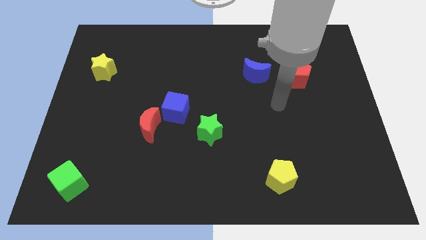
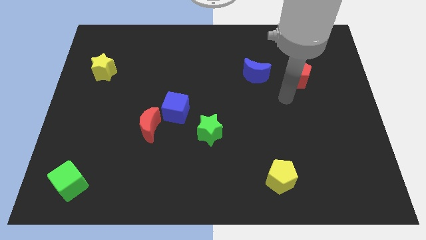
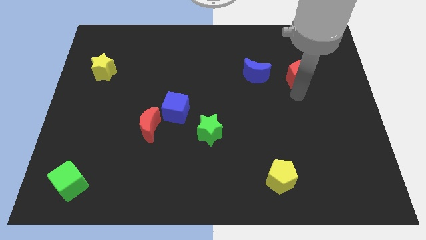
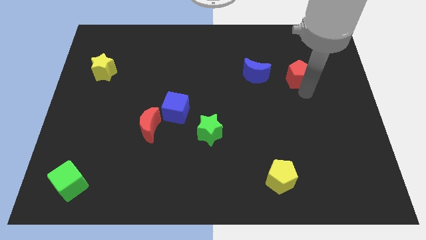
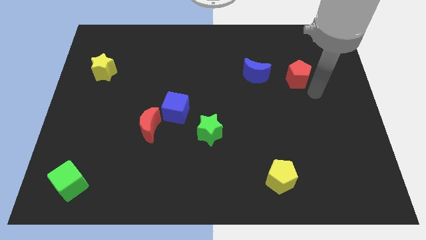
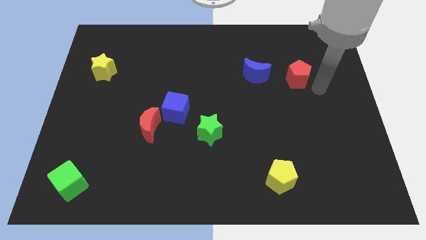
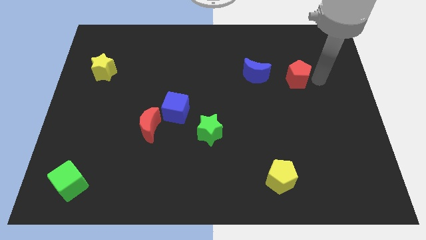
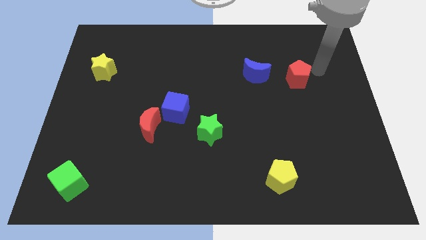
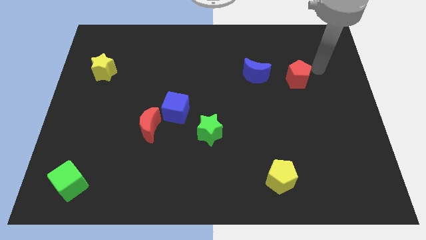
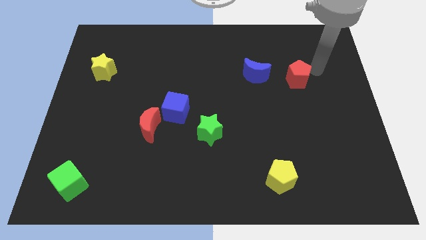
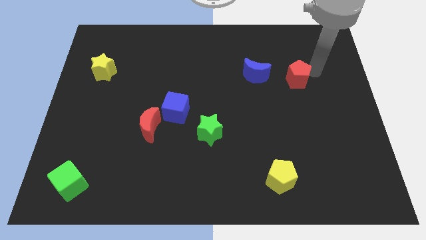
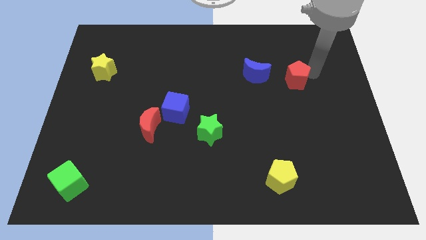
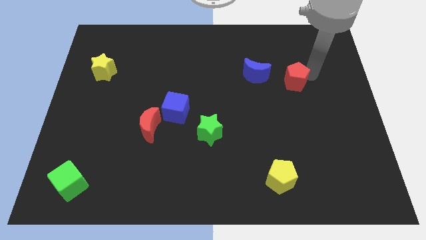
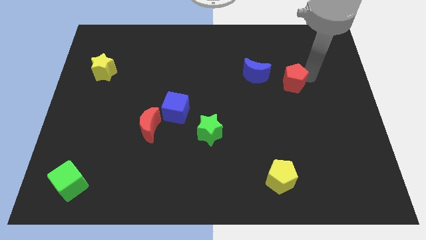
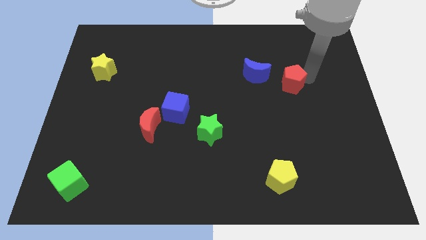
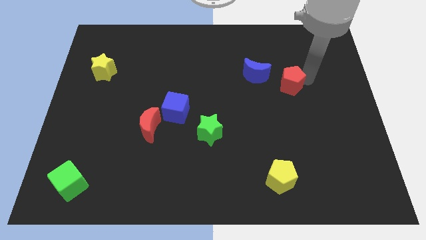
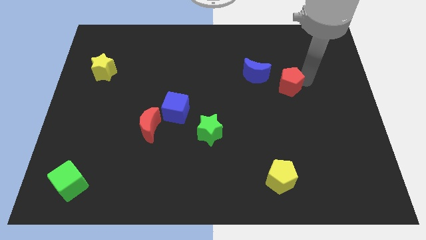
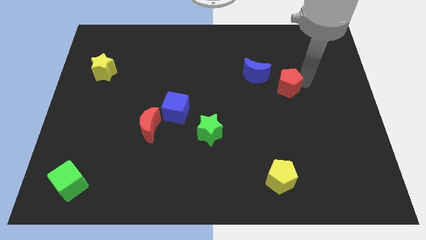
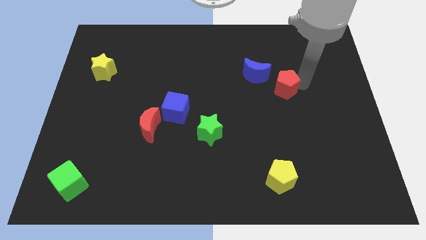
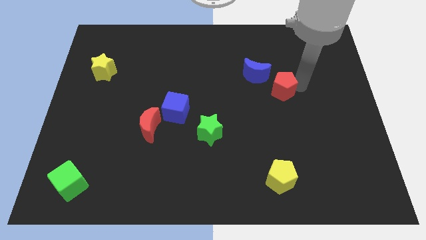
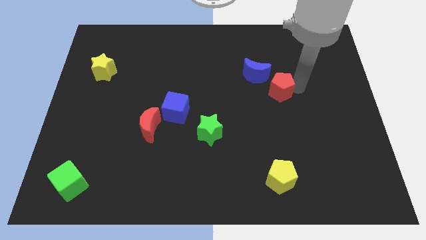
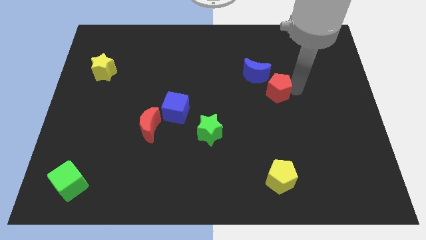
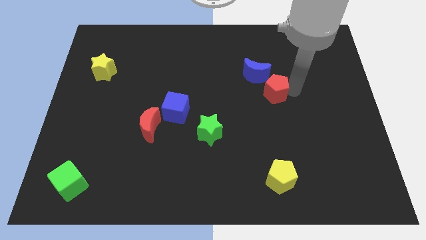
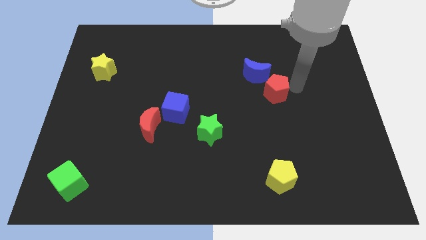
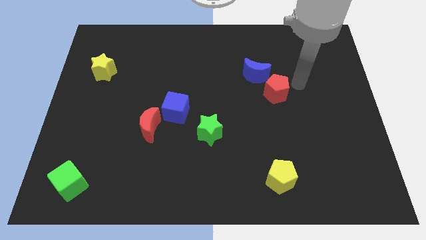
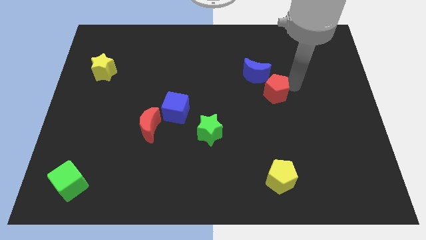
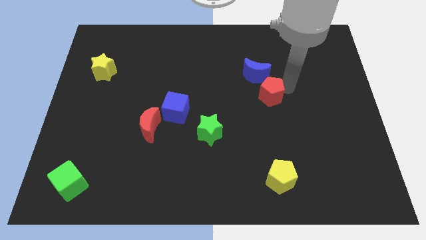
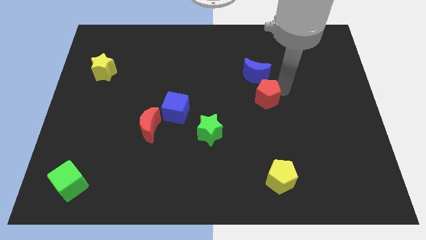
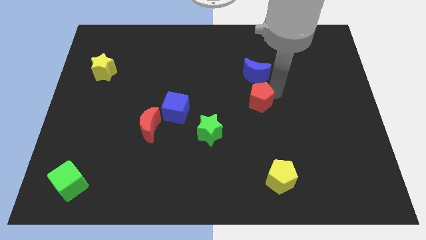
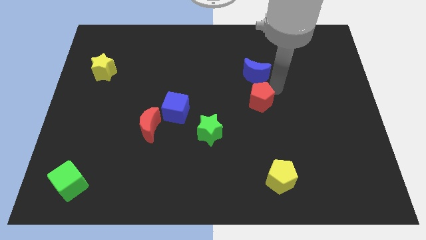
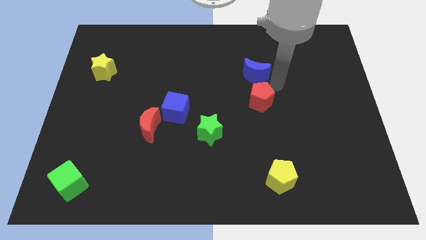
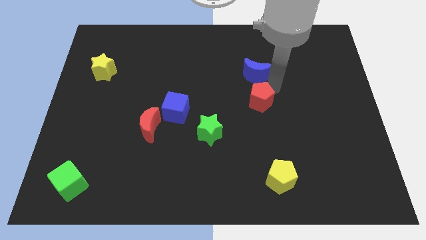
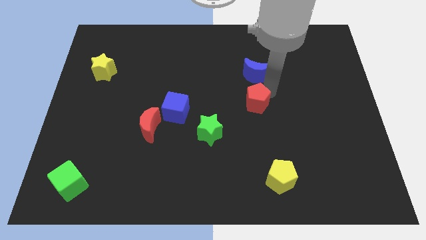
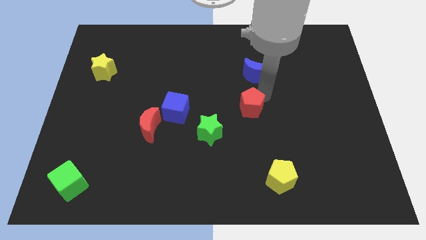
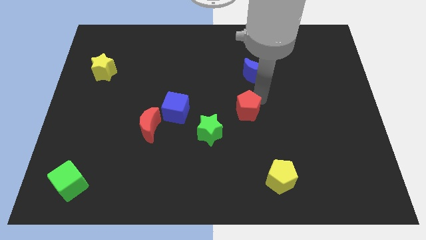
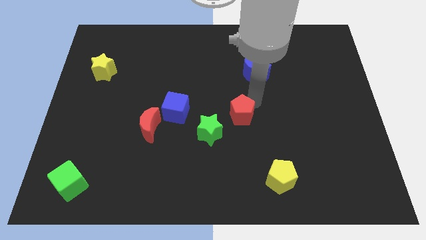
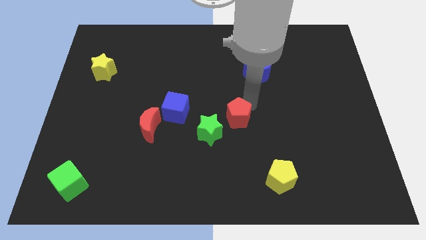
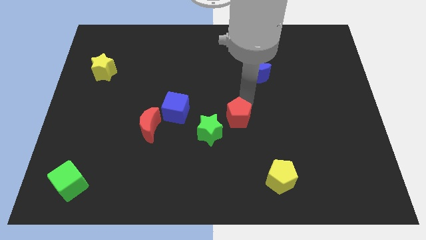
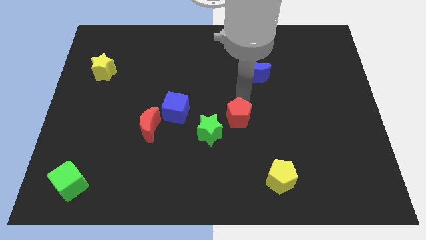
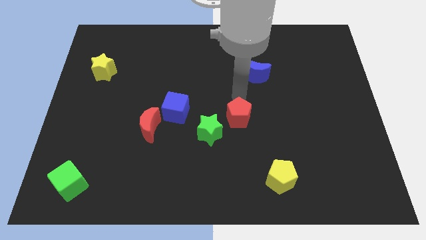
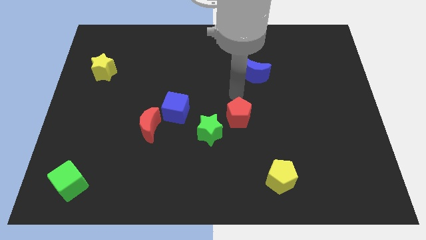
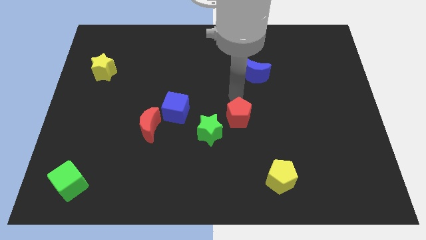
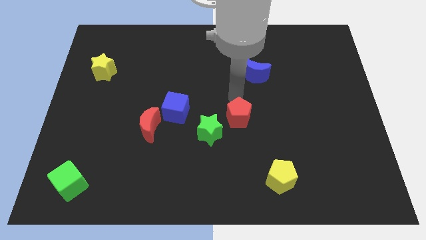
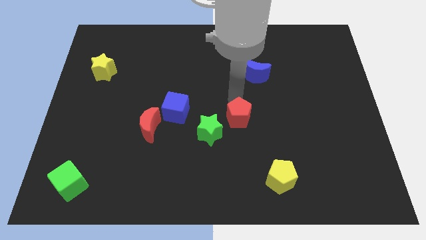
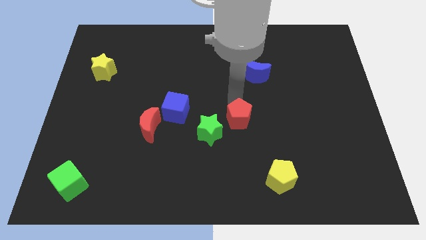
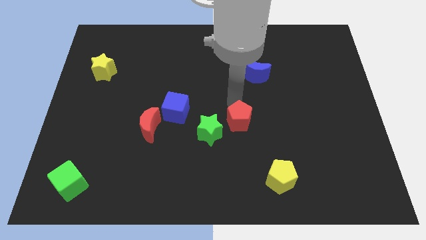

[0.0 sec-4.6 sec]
move the red pentagon downwards and left diagonally

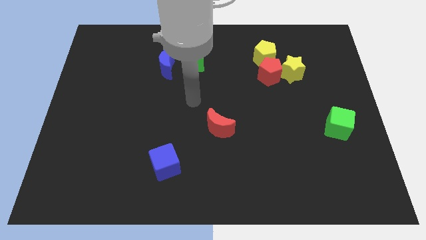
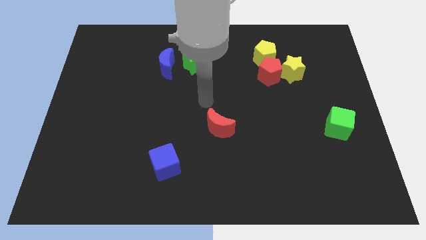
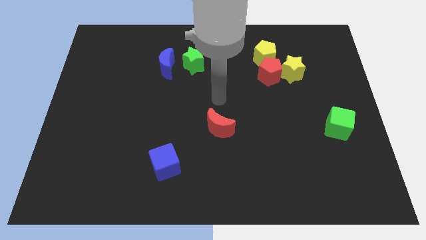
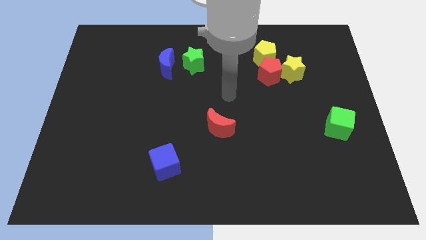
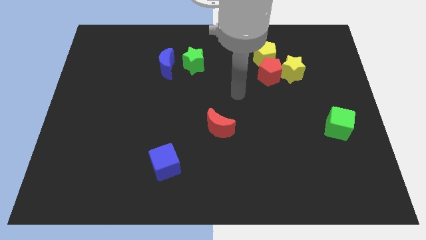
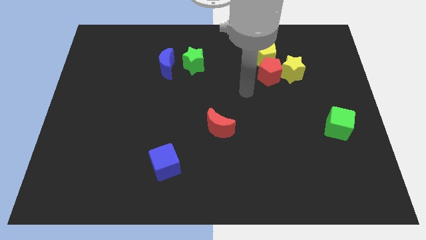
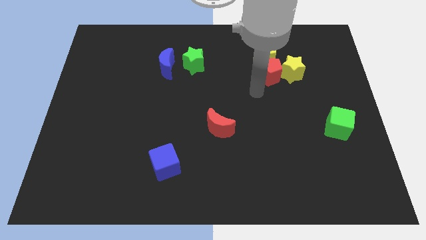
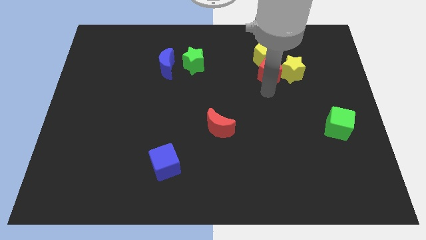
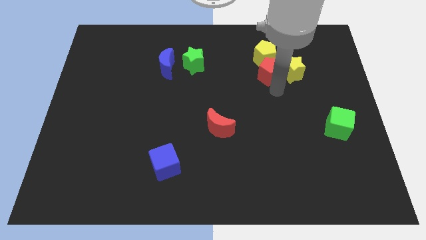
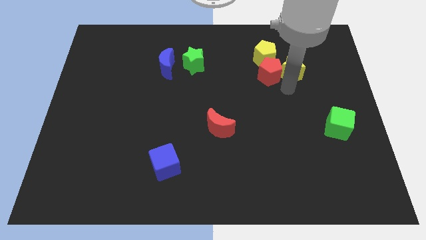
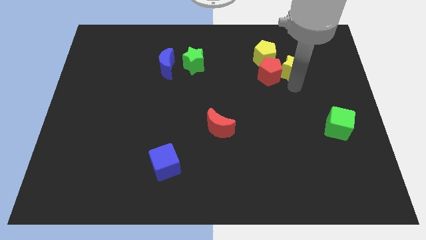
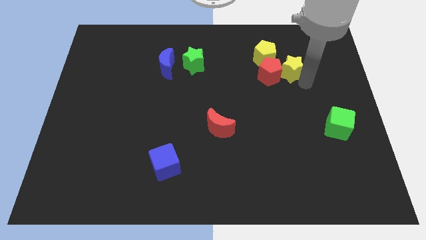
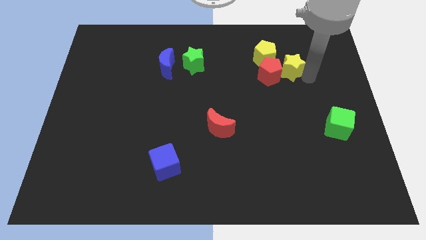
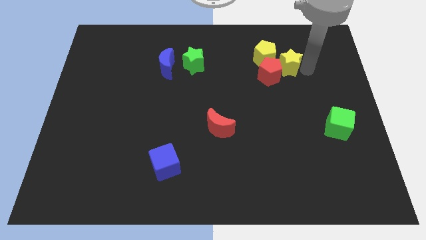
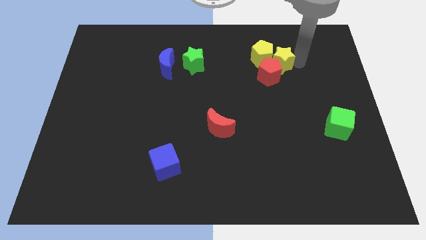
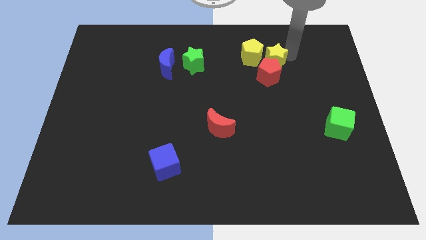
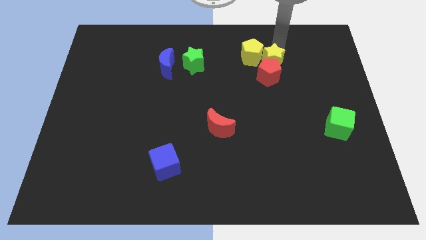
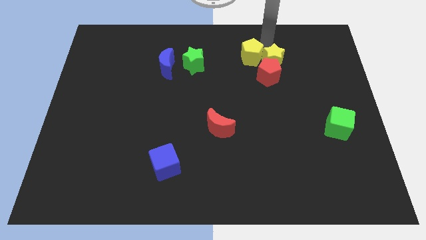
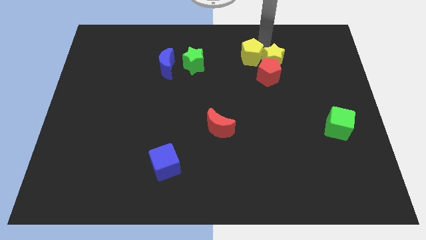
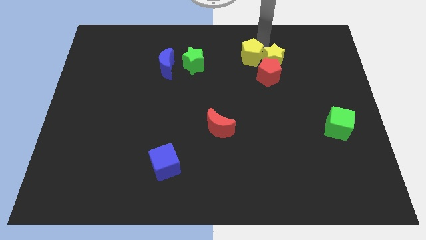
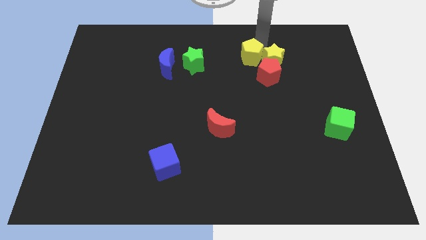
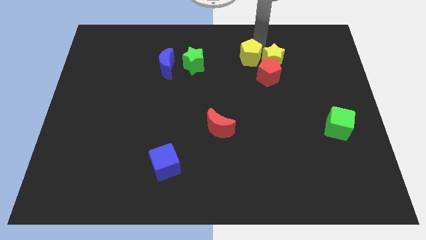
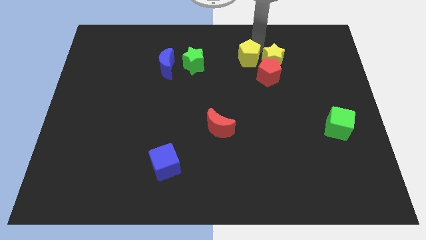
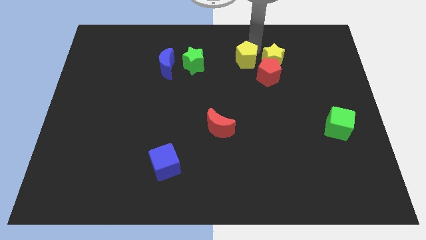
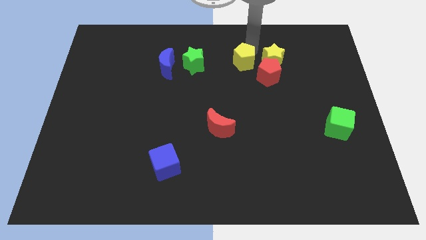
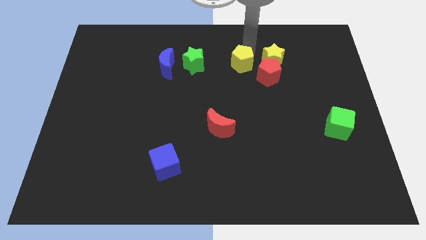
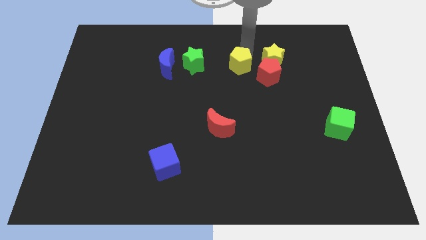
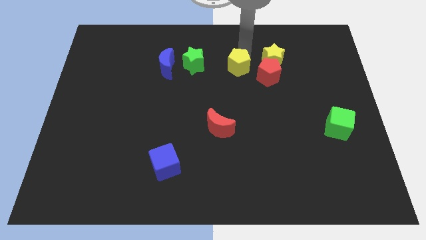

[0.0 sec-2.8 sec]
push the yellow pentagon a little down and then left

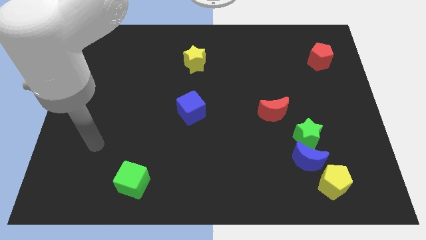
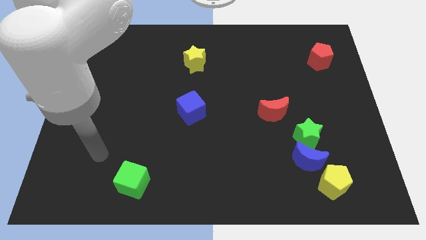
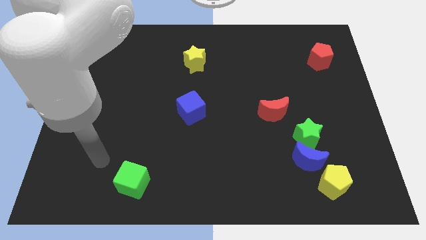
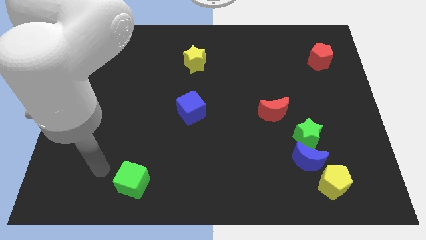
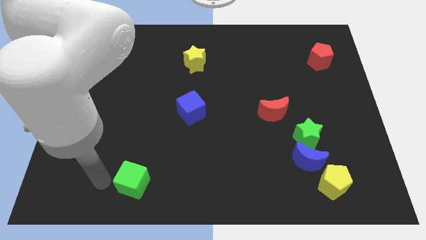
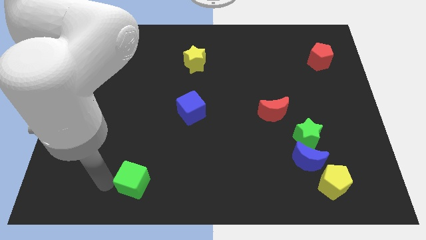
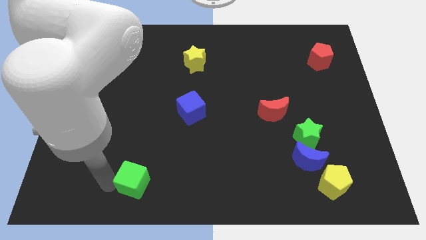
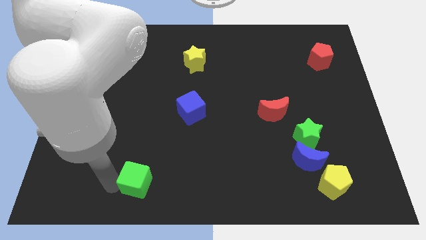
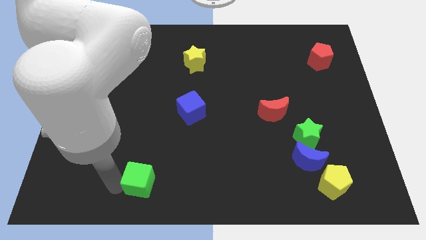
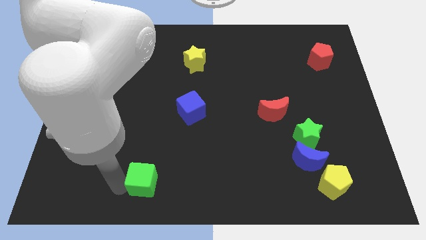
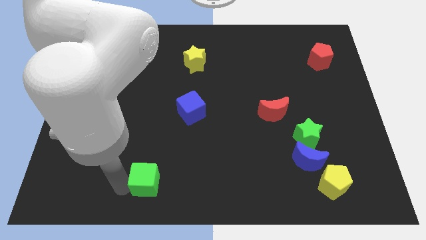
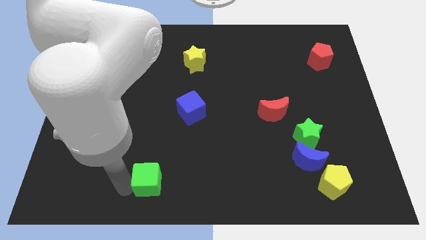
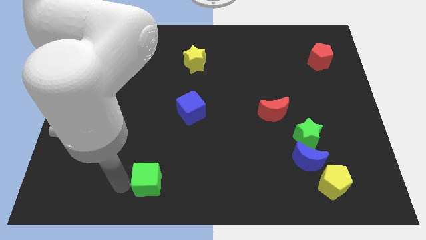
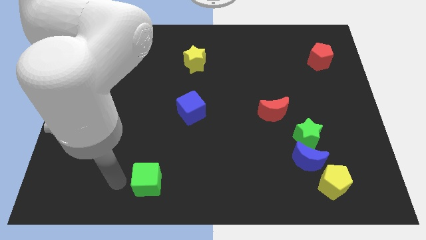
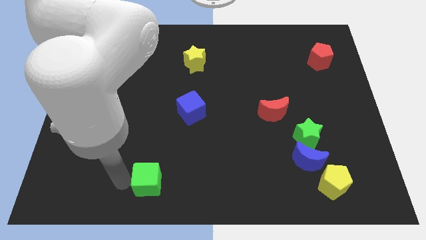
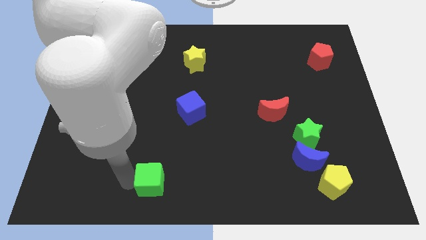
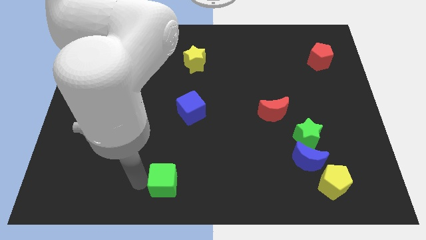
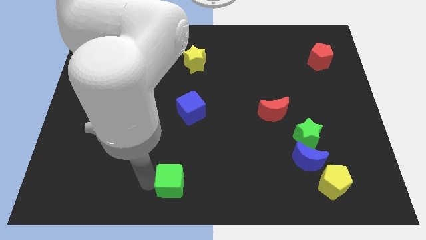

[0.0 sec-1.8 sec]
slightly slide the green cube to the right
